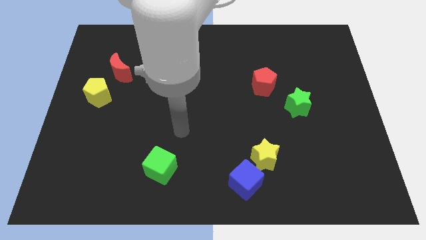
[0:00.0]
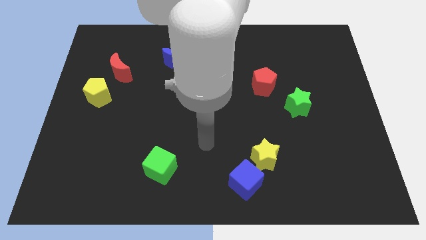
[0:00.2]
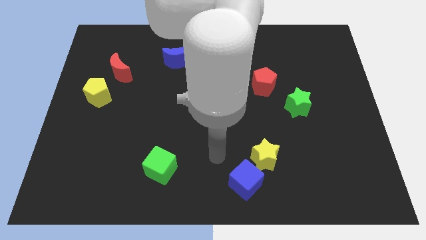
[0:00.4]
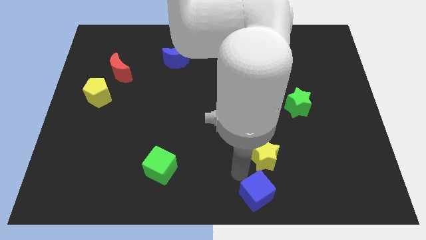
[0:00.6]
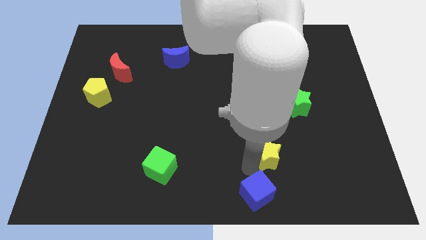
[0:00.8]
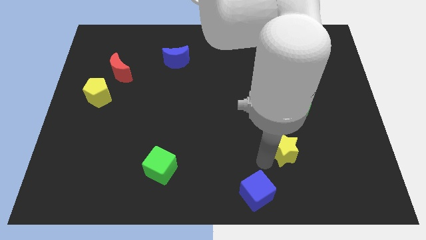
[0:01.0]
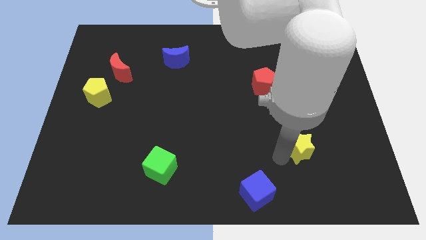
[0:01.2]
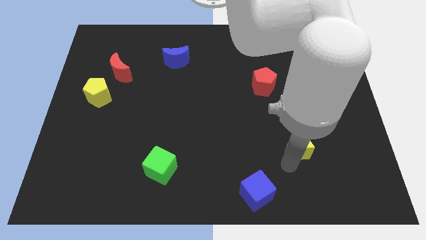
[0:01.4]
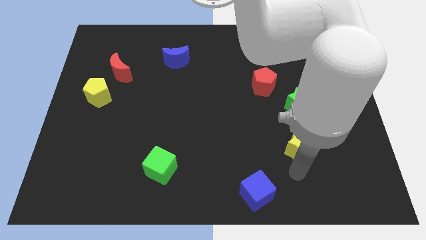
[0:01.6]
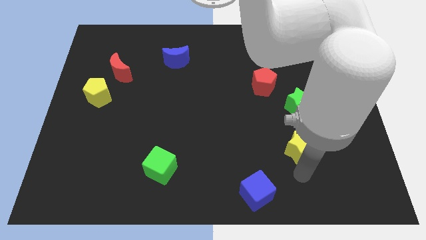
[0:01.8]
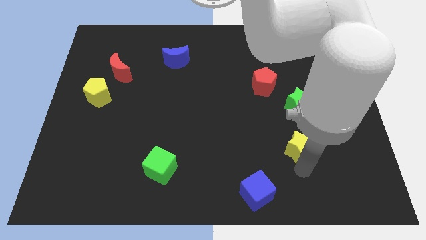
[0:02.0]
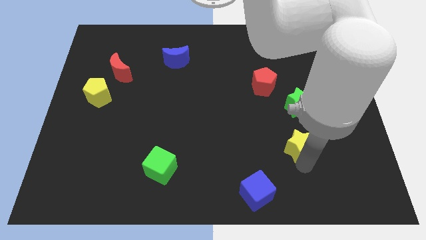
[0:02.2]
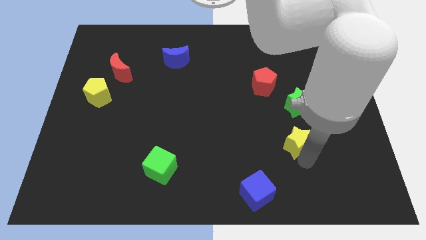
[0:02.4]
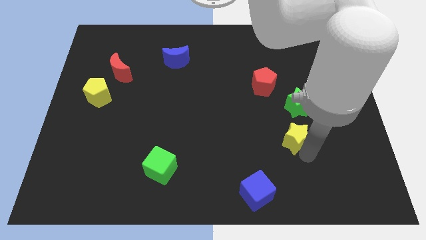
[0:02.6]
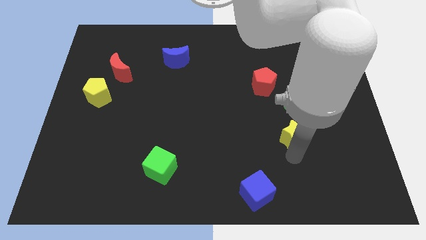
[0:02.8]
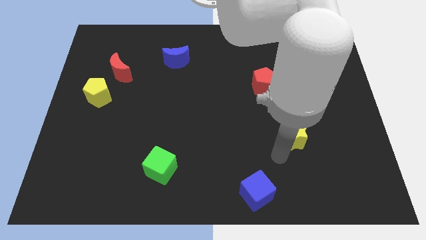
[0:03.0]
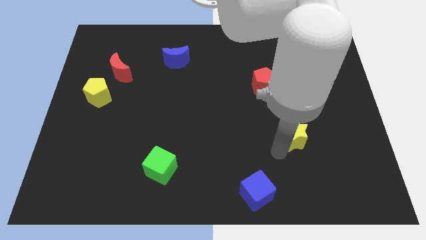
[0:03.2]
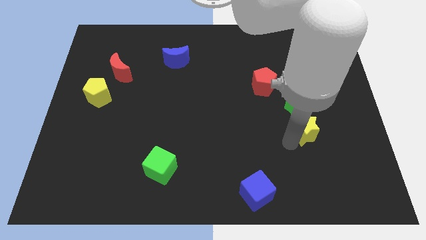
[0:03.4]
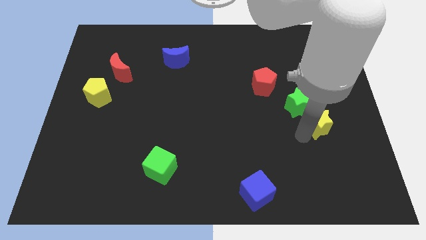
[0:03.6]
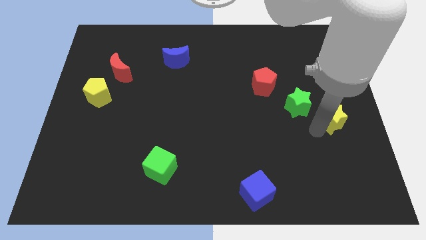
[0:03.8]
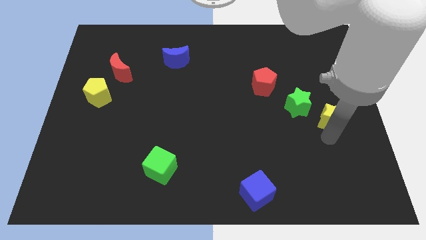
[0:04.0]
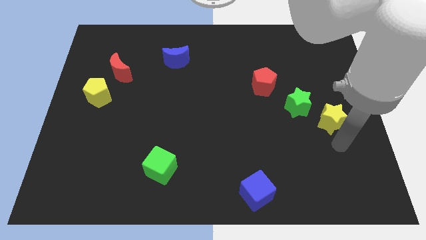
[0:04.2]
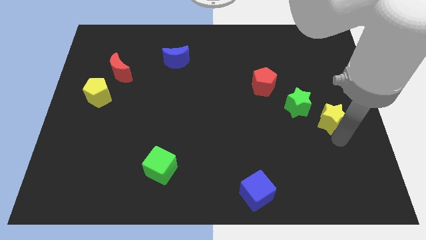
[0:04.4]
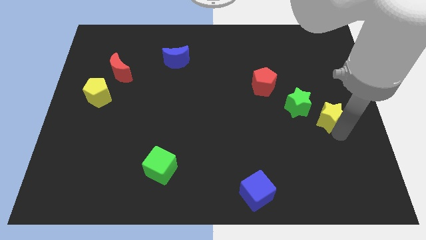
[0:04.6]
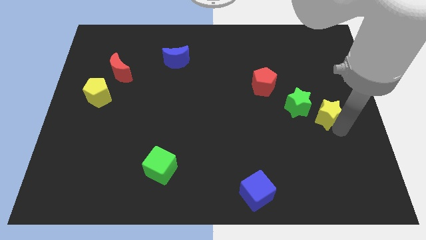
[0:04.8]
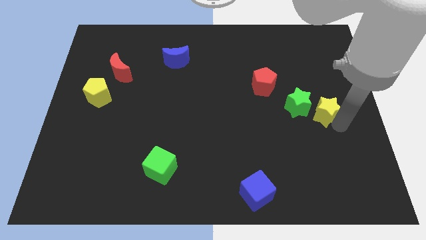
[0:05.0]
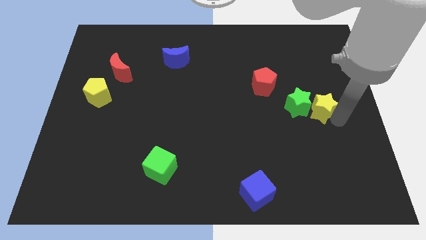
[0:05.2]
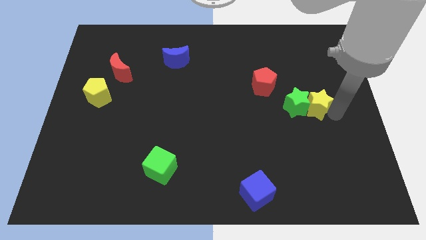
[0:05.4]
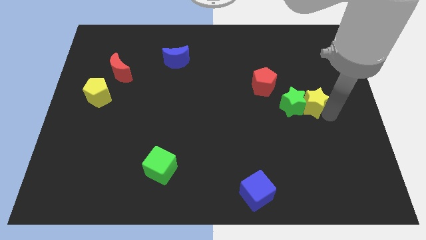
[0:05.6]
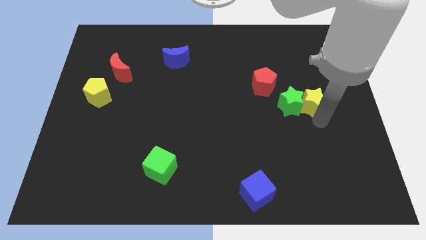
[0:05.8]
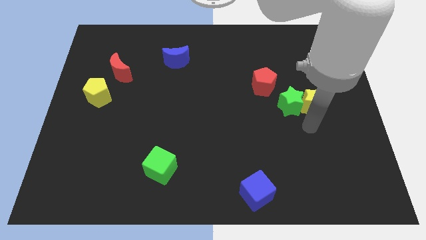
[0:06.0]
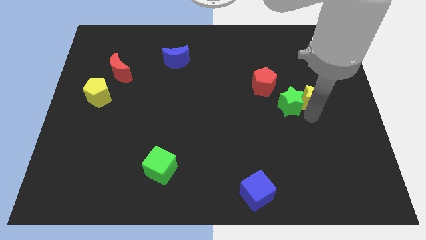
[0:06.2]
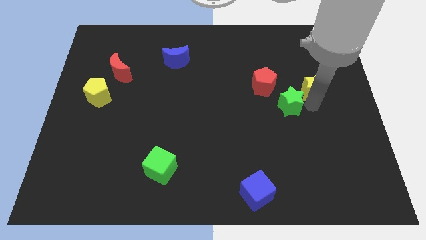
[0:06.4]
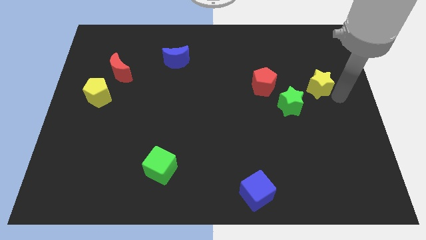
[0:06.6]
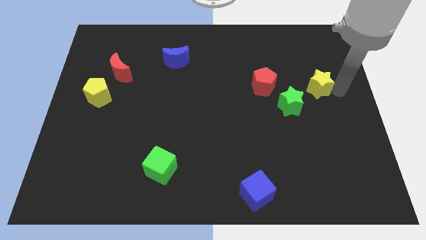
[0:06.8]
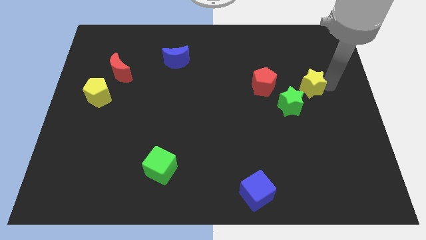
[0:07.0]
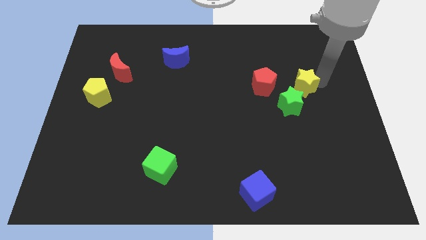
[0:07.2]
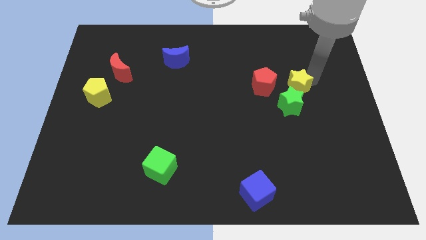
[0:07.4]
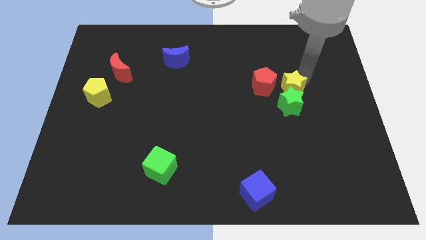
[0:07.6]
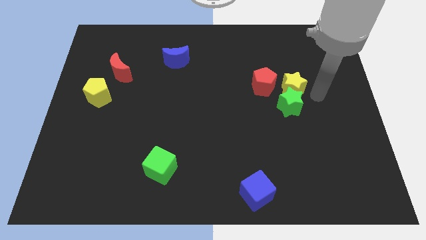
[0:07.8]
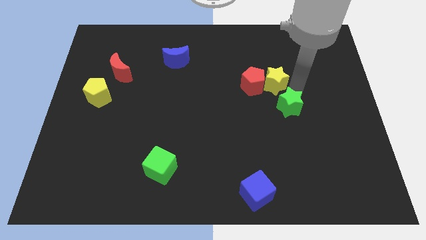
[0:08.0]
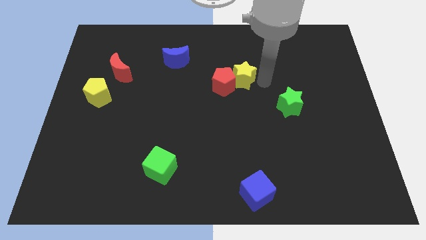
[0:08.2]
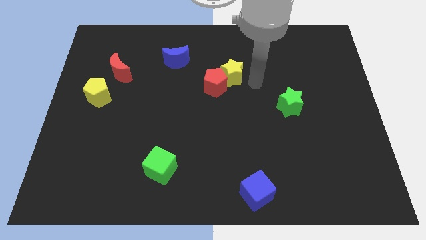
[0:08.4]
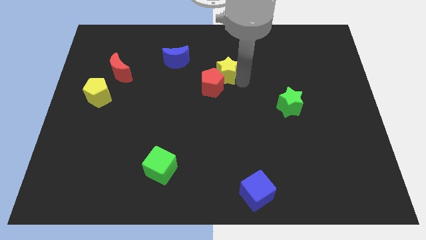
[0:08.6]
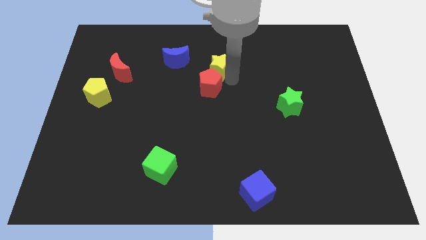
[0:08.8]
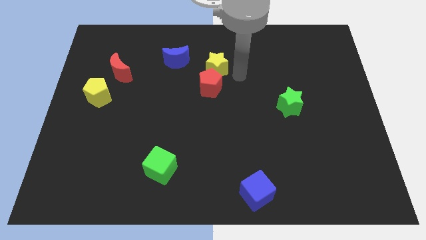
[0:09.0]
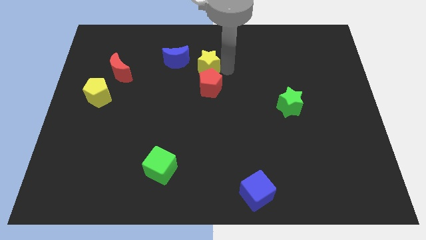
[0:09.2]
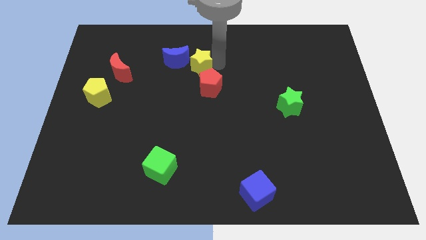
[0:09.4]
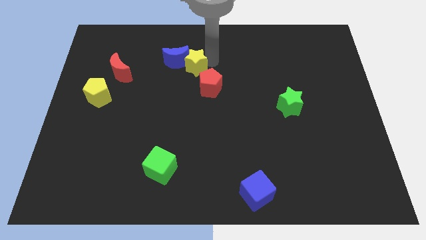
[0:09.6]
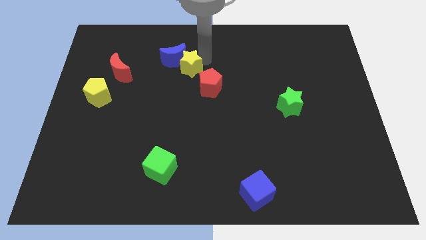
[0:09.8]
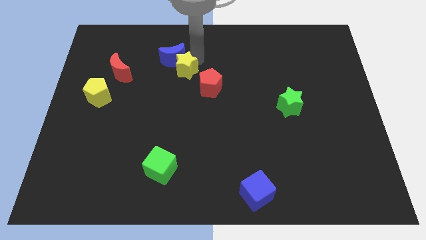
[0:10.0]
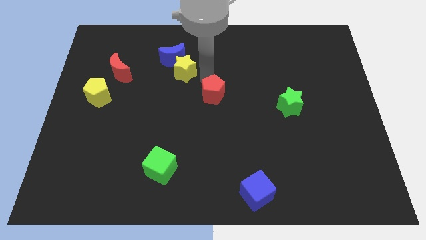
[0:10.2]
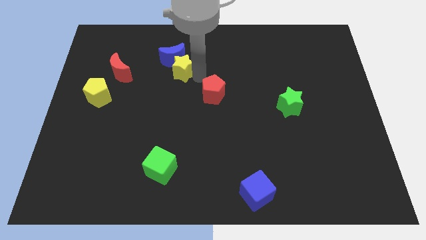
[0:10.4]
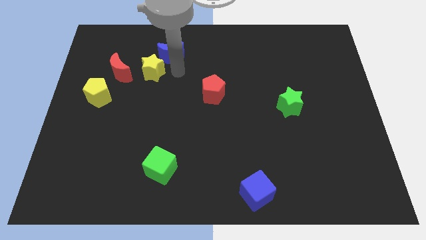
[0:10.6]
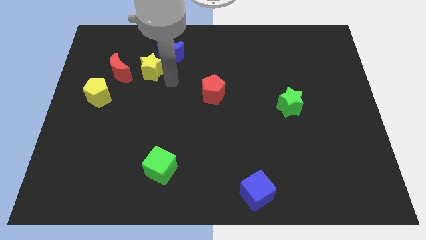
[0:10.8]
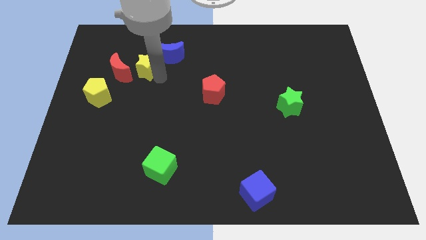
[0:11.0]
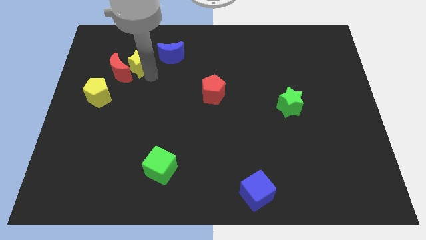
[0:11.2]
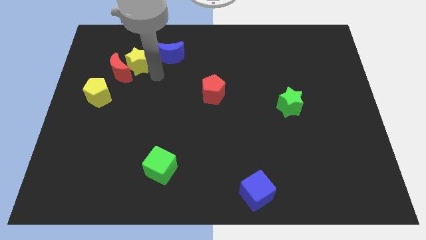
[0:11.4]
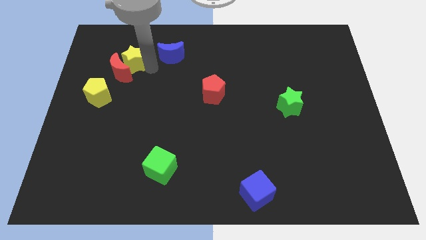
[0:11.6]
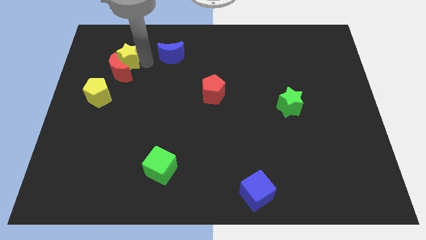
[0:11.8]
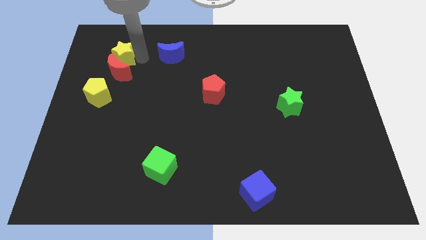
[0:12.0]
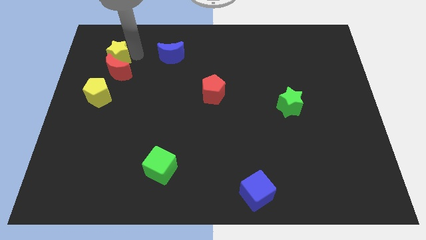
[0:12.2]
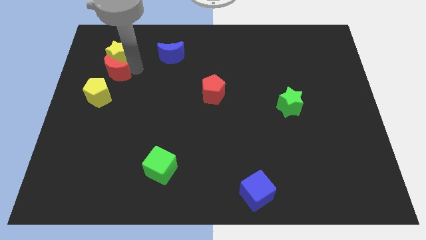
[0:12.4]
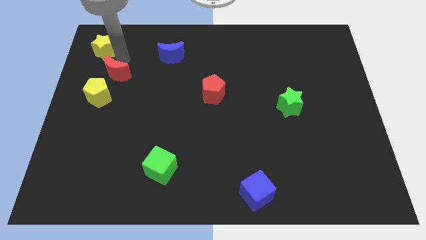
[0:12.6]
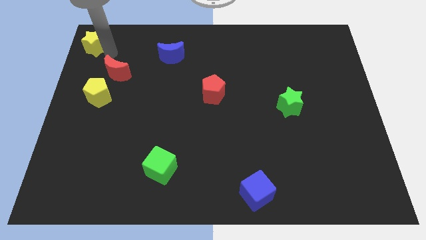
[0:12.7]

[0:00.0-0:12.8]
slide the yellow star to the upper left corner
